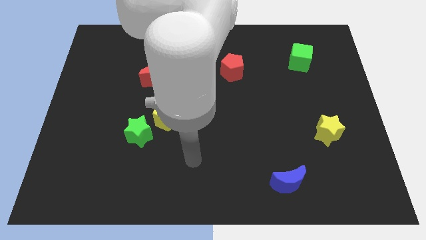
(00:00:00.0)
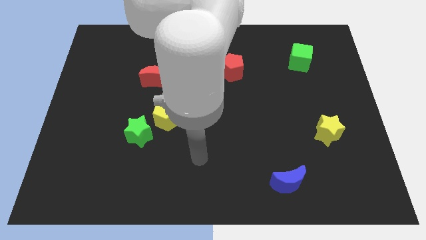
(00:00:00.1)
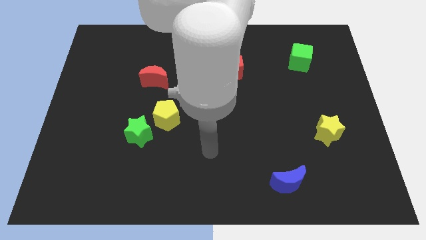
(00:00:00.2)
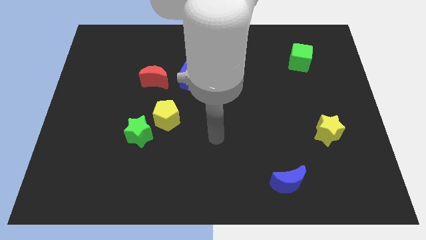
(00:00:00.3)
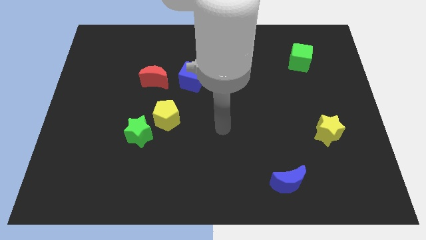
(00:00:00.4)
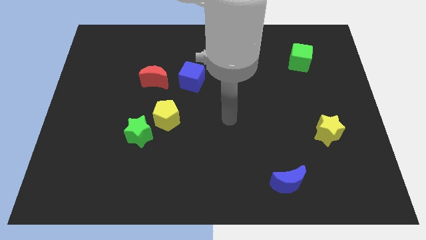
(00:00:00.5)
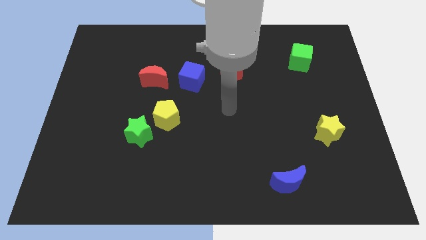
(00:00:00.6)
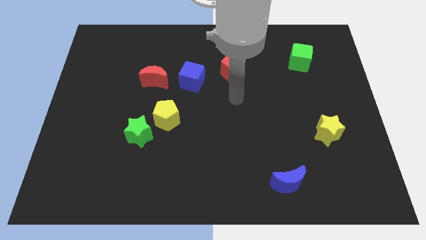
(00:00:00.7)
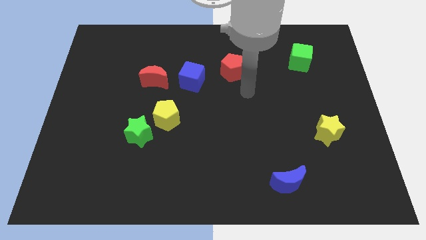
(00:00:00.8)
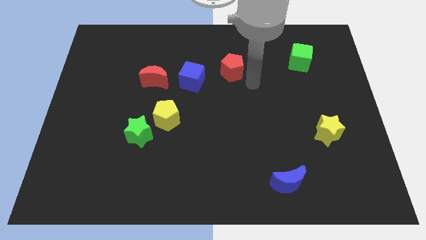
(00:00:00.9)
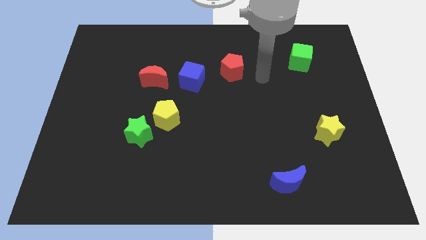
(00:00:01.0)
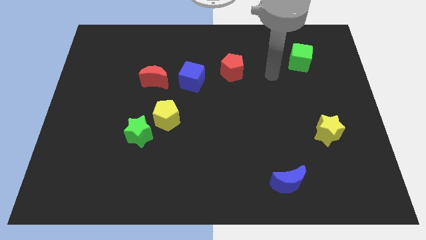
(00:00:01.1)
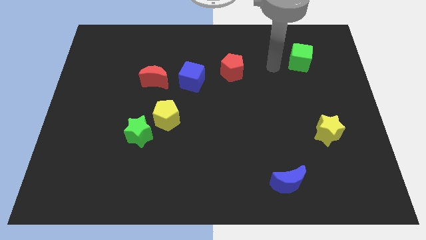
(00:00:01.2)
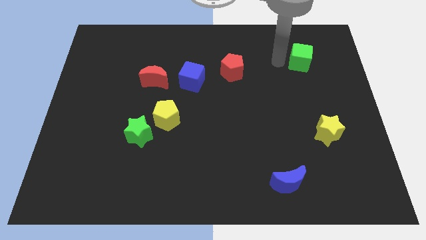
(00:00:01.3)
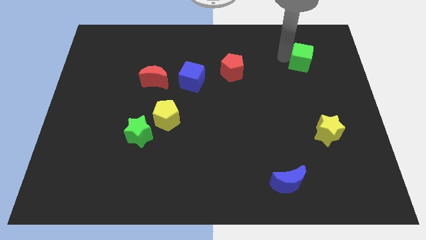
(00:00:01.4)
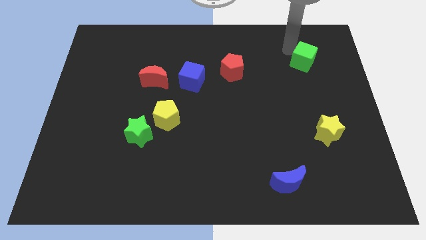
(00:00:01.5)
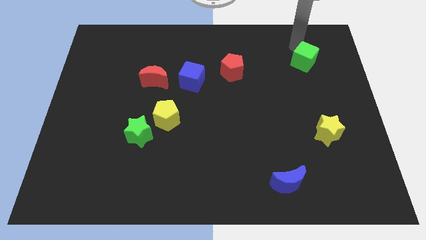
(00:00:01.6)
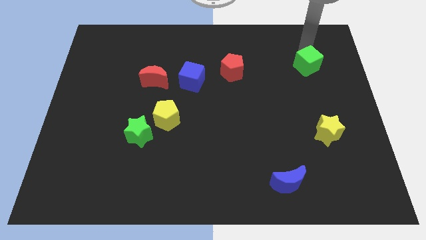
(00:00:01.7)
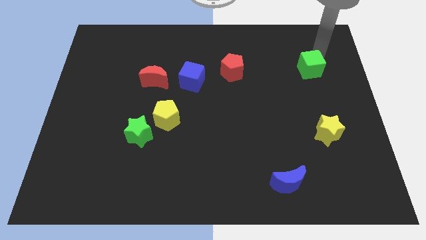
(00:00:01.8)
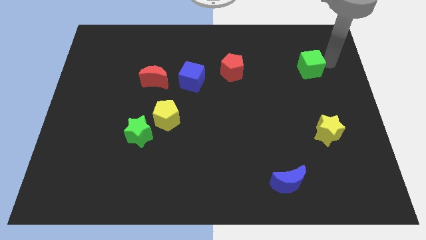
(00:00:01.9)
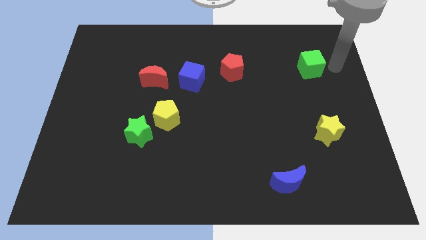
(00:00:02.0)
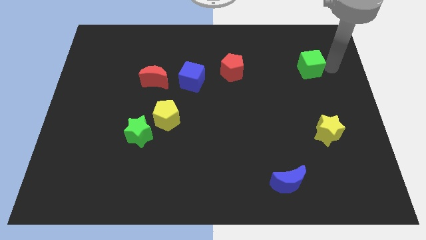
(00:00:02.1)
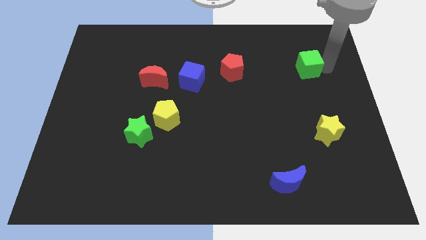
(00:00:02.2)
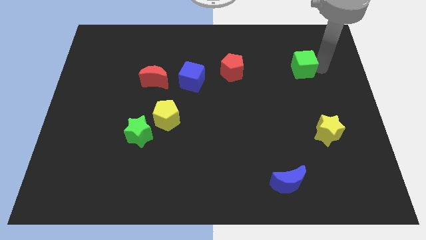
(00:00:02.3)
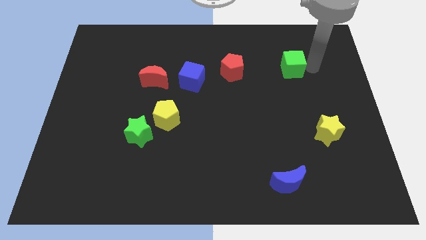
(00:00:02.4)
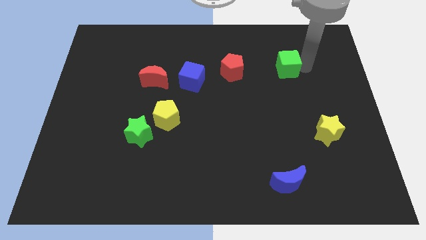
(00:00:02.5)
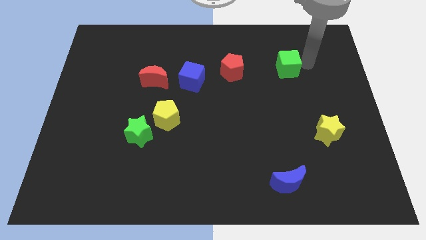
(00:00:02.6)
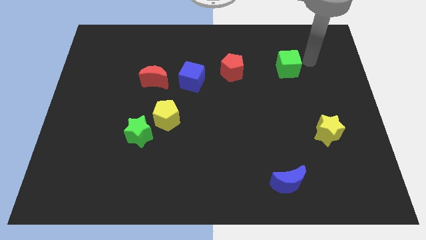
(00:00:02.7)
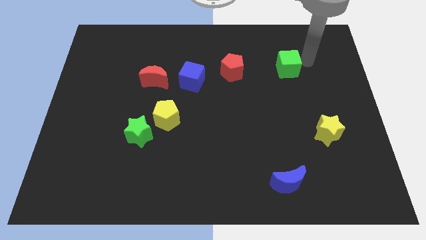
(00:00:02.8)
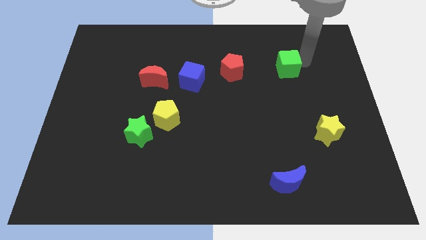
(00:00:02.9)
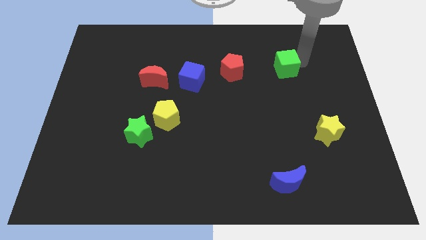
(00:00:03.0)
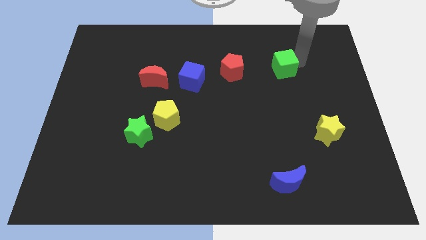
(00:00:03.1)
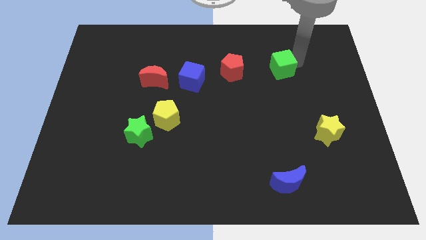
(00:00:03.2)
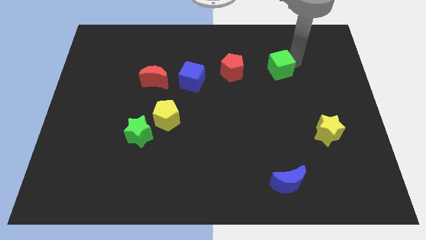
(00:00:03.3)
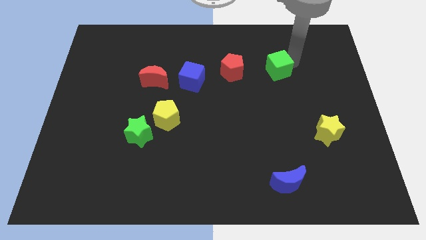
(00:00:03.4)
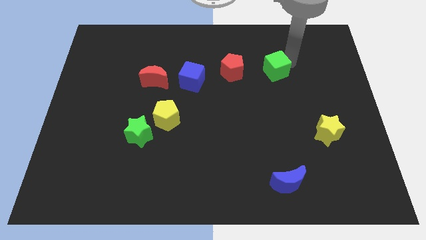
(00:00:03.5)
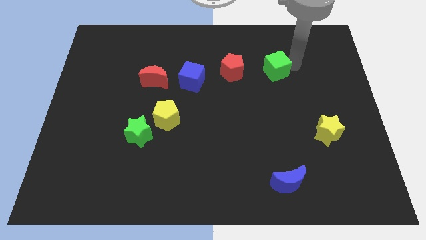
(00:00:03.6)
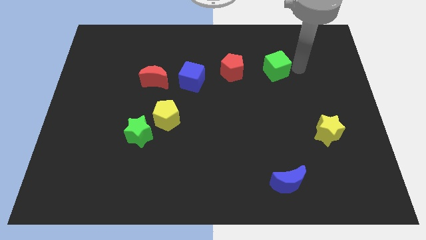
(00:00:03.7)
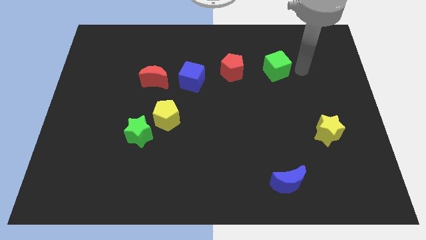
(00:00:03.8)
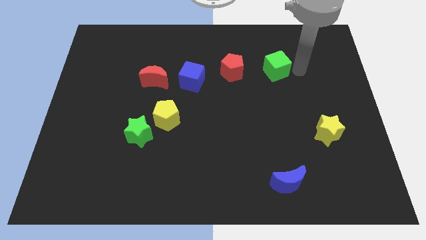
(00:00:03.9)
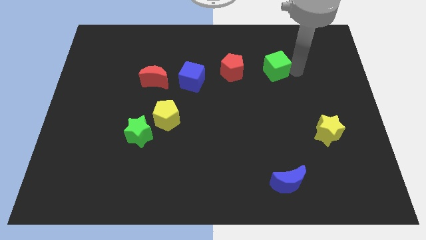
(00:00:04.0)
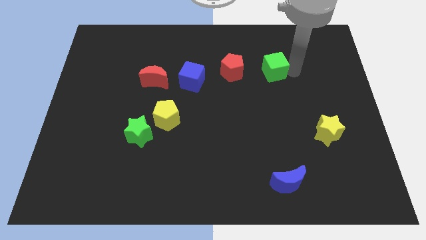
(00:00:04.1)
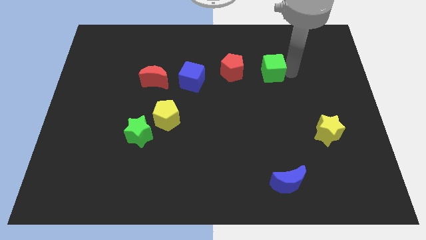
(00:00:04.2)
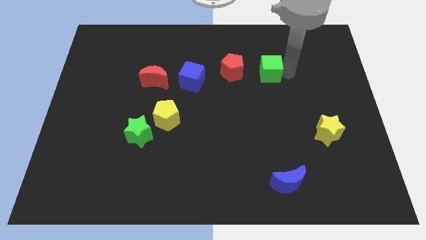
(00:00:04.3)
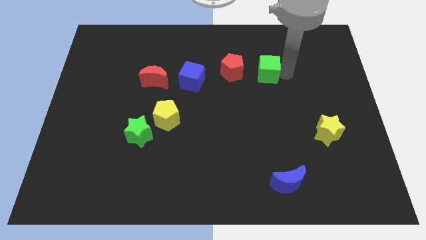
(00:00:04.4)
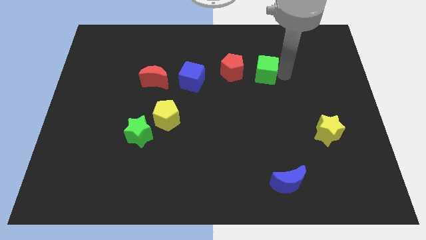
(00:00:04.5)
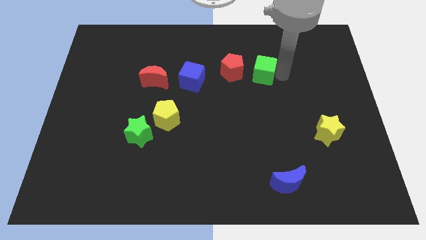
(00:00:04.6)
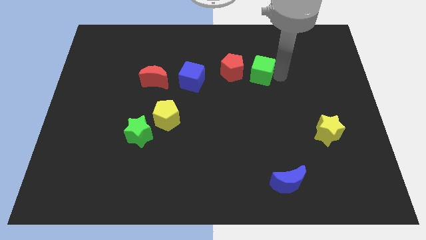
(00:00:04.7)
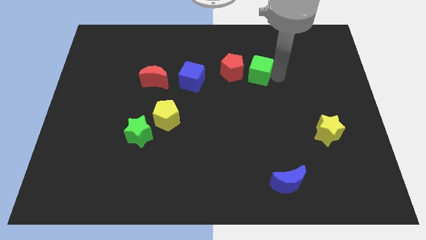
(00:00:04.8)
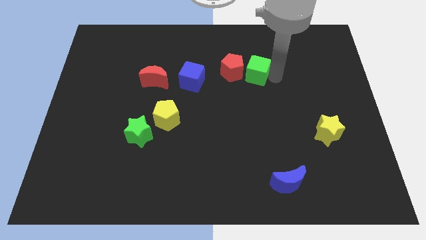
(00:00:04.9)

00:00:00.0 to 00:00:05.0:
push the green cube towards the red pentagon

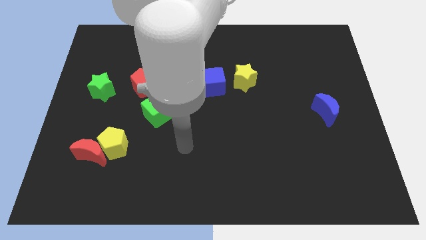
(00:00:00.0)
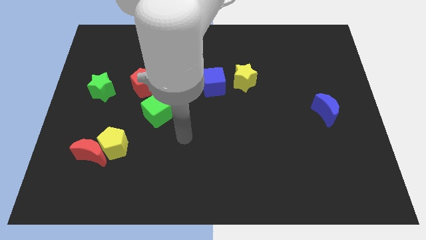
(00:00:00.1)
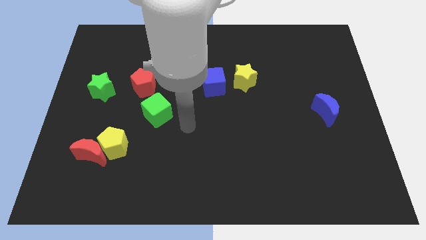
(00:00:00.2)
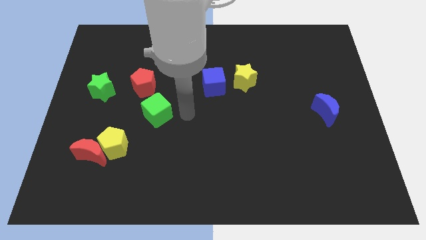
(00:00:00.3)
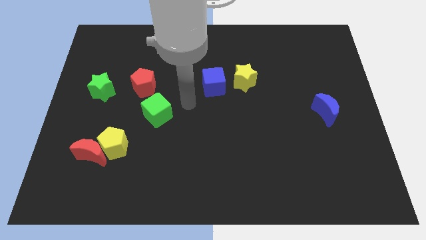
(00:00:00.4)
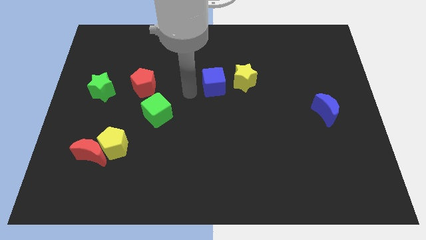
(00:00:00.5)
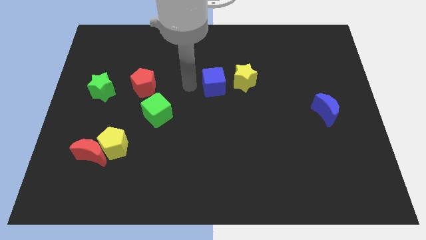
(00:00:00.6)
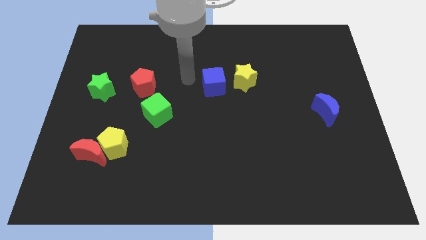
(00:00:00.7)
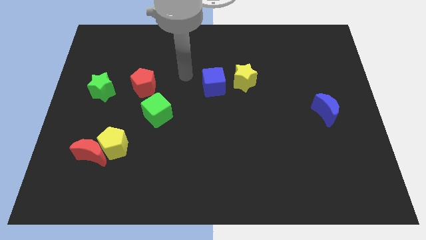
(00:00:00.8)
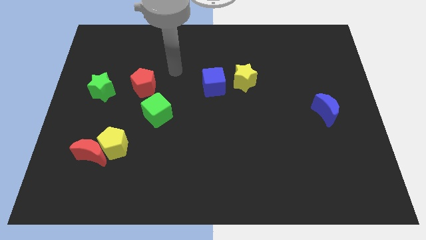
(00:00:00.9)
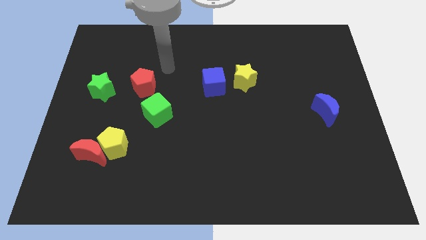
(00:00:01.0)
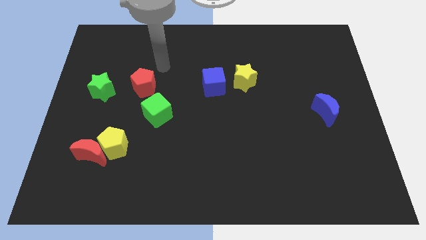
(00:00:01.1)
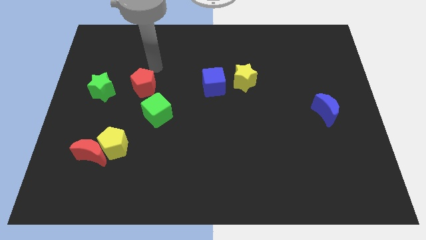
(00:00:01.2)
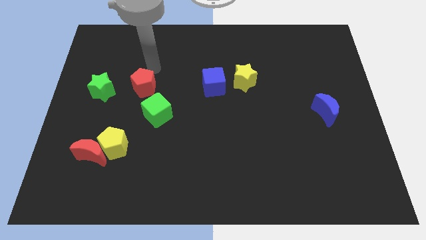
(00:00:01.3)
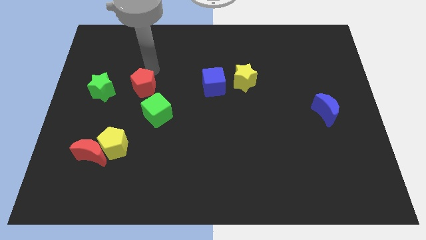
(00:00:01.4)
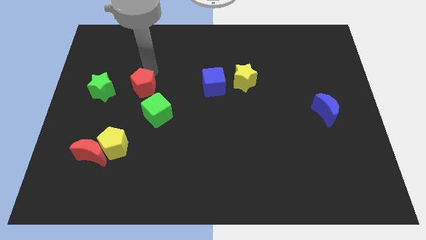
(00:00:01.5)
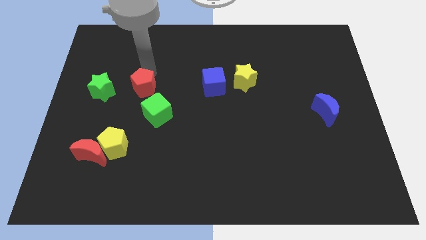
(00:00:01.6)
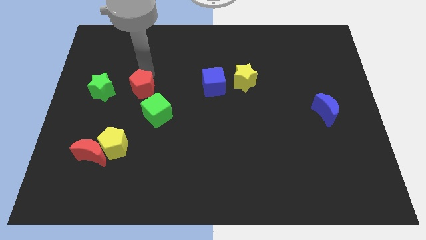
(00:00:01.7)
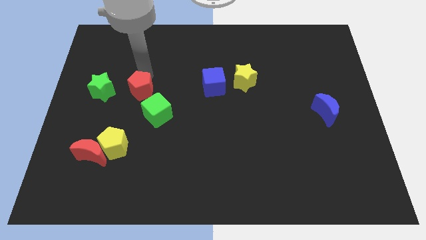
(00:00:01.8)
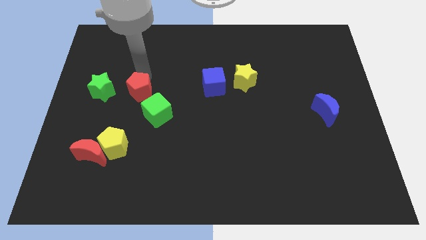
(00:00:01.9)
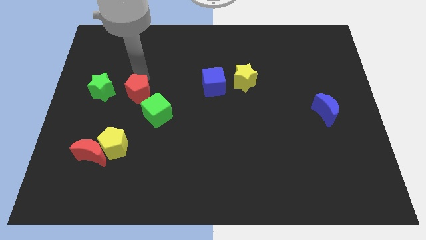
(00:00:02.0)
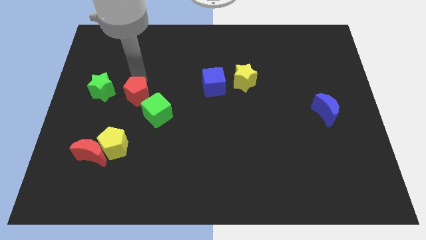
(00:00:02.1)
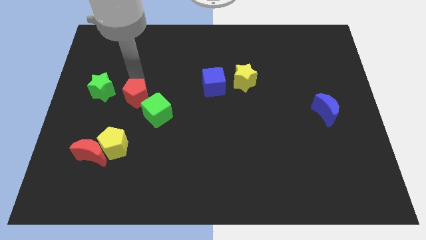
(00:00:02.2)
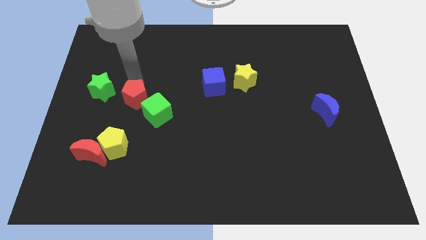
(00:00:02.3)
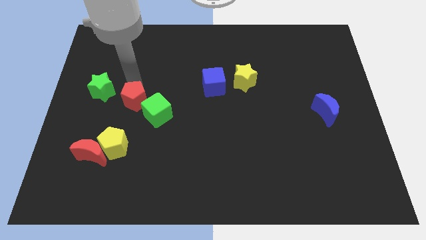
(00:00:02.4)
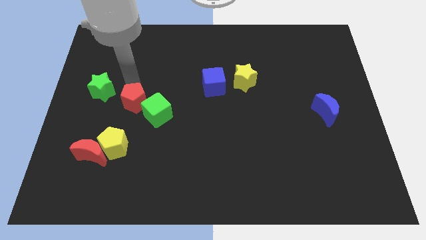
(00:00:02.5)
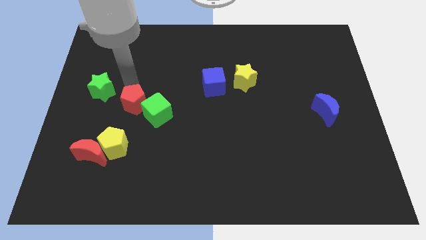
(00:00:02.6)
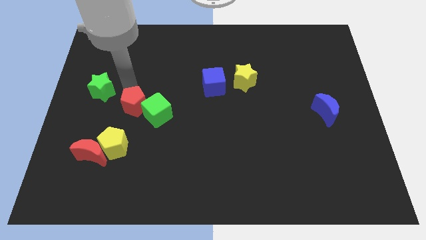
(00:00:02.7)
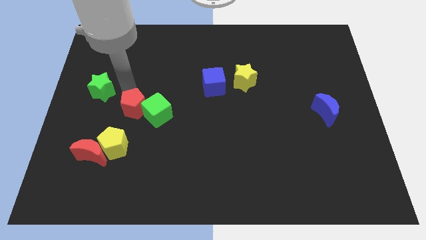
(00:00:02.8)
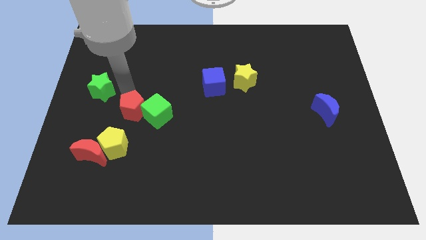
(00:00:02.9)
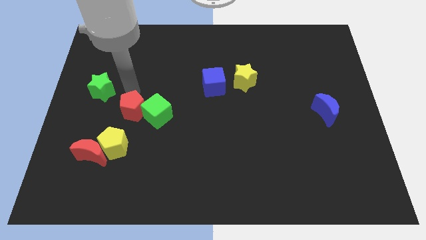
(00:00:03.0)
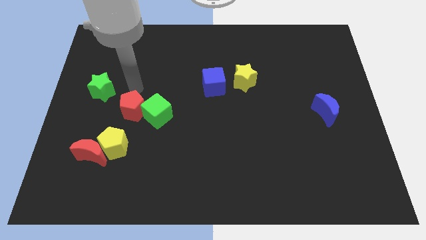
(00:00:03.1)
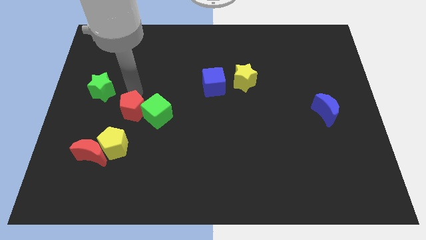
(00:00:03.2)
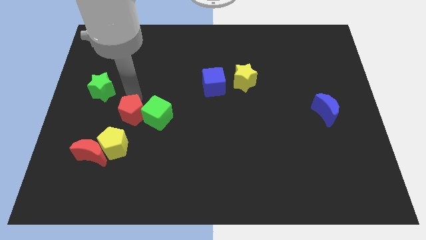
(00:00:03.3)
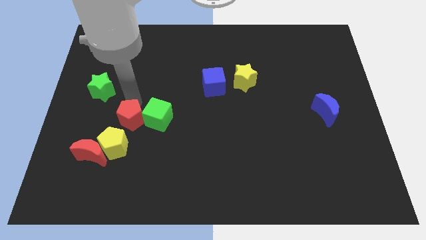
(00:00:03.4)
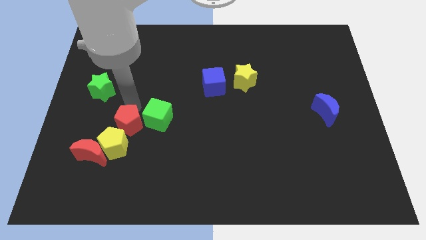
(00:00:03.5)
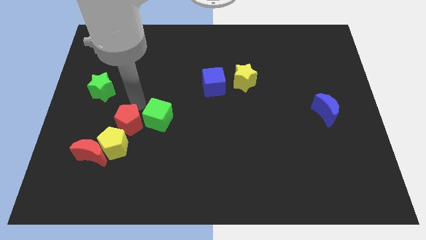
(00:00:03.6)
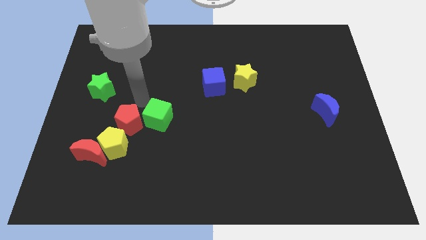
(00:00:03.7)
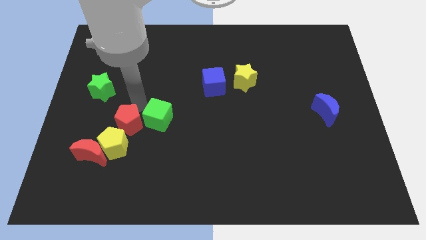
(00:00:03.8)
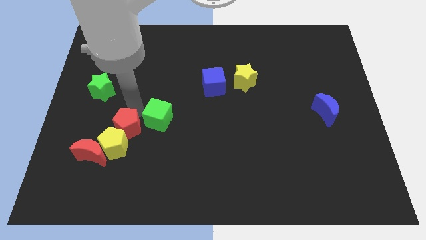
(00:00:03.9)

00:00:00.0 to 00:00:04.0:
put the red pentagon towards the yellow pentagon
